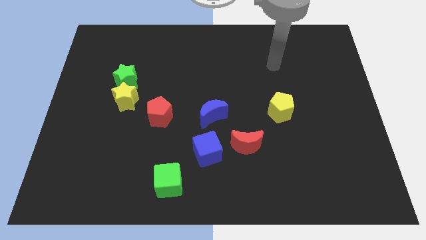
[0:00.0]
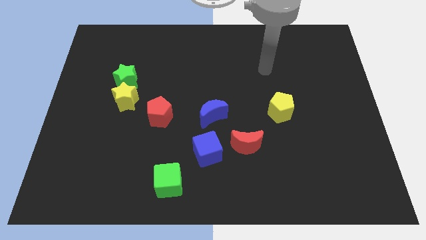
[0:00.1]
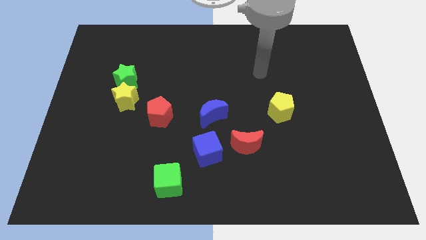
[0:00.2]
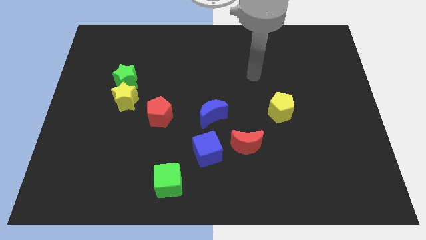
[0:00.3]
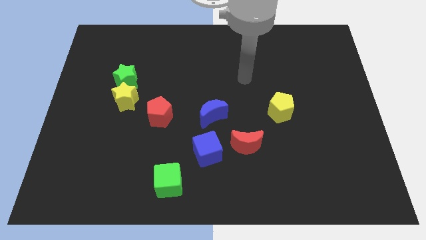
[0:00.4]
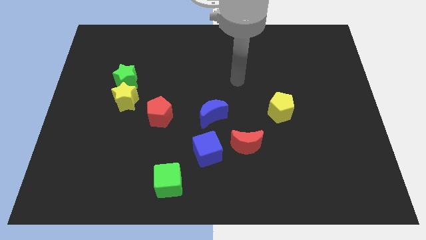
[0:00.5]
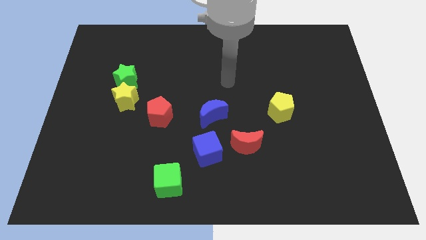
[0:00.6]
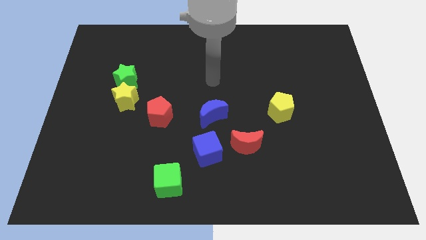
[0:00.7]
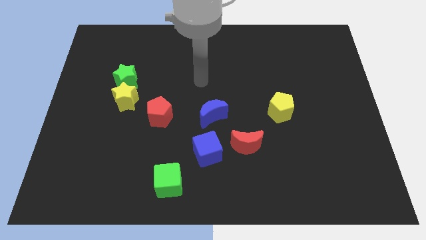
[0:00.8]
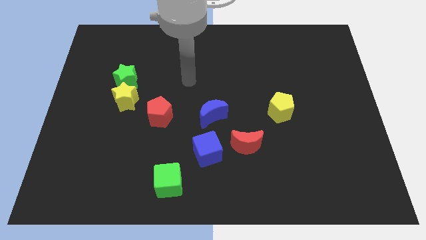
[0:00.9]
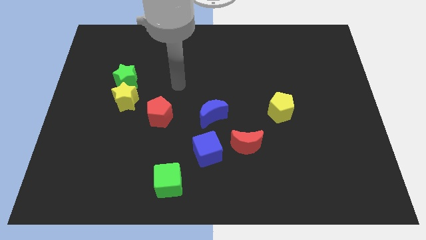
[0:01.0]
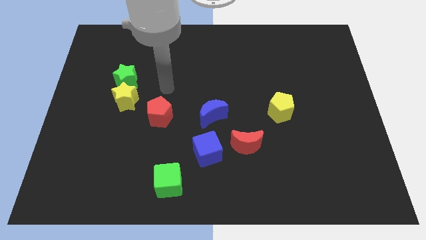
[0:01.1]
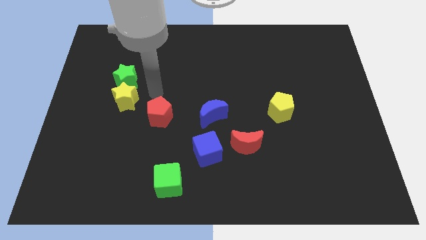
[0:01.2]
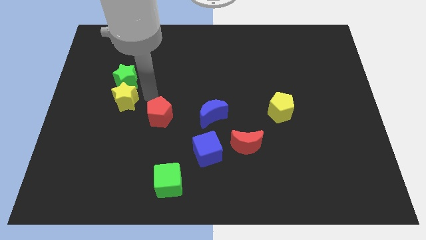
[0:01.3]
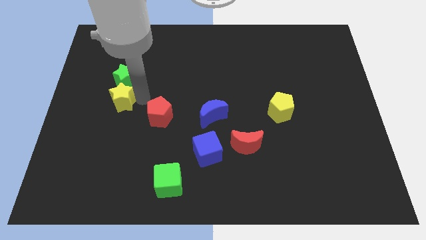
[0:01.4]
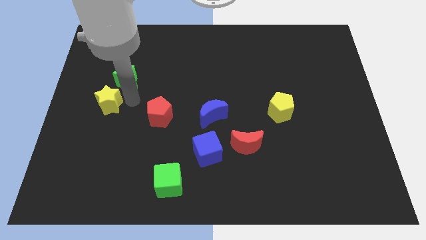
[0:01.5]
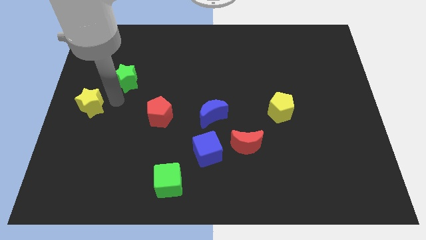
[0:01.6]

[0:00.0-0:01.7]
pull the green star apart from the yellow star

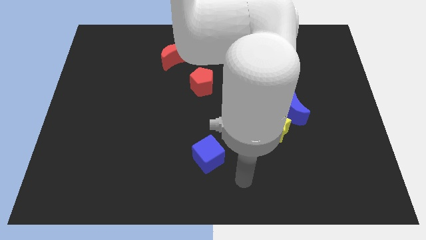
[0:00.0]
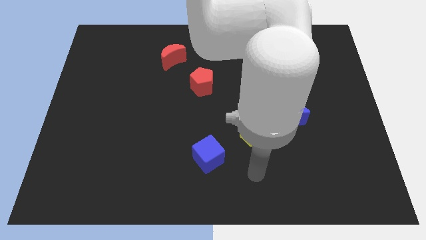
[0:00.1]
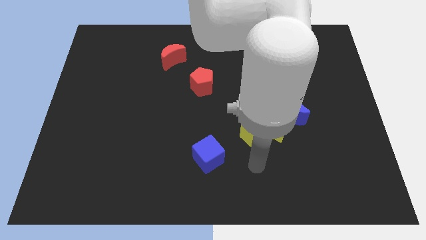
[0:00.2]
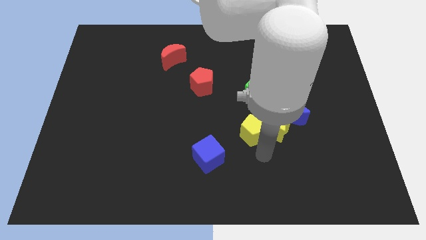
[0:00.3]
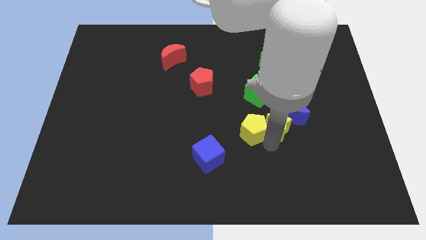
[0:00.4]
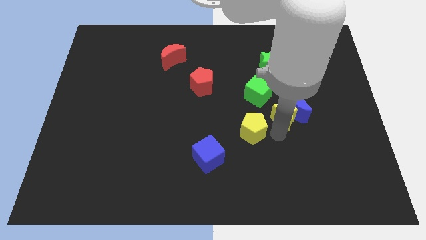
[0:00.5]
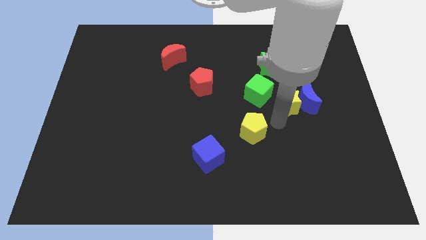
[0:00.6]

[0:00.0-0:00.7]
move the yellow pentagon away from the yellow star

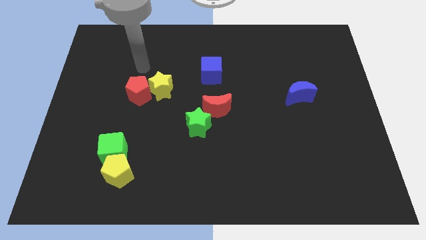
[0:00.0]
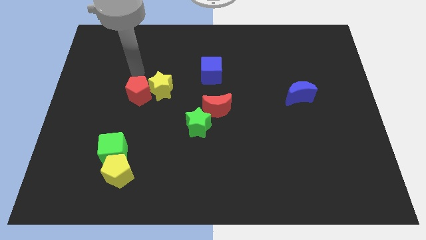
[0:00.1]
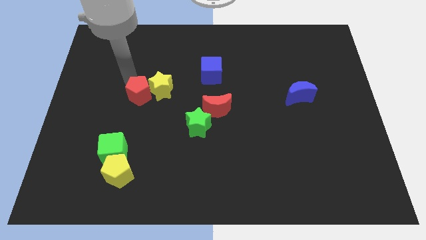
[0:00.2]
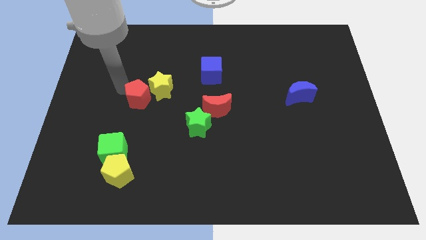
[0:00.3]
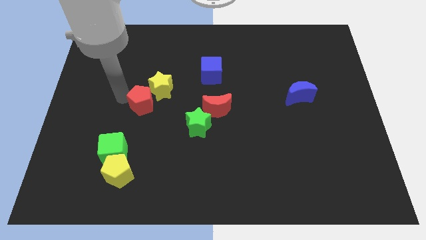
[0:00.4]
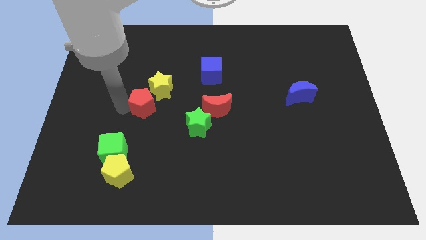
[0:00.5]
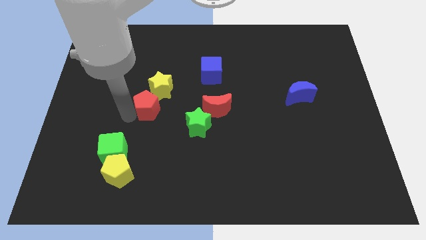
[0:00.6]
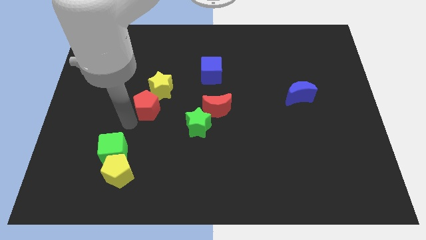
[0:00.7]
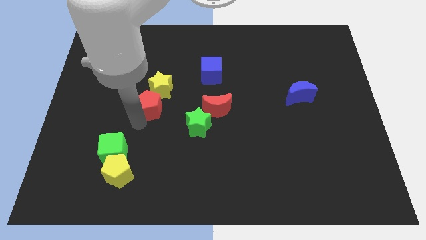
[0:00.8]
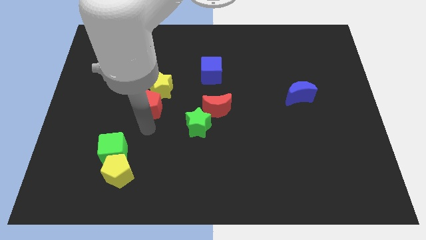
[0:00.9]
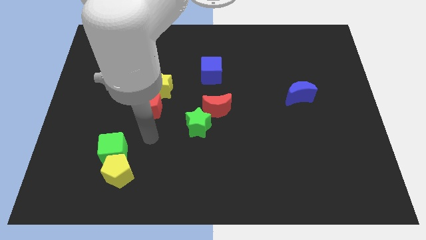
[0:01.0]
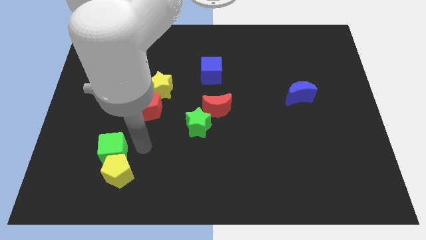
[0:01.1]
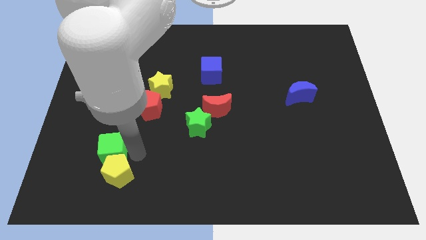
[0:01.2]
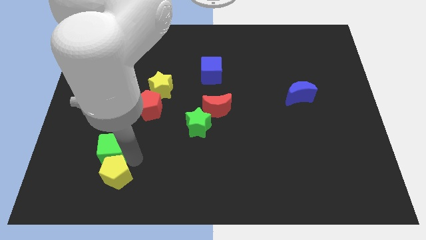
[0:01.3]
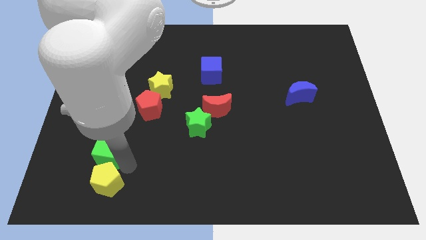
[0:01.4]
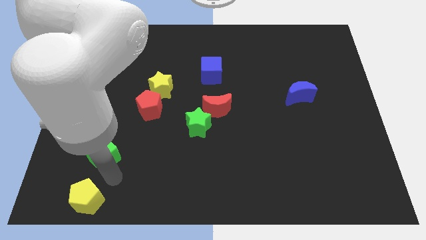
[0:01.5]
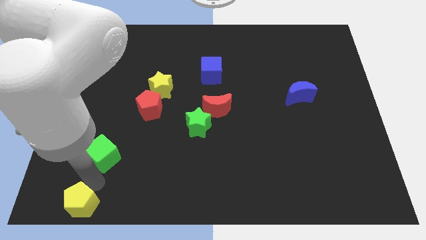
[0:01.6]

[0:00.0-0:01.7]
separate the green cube from the yellow pentagon

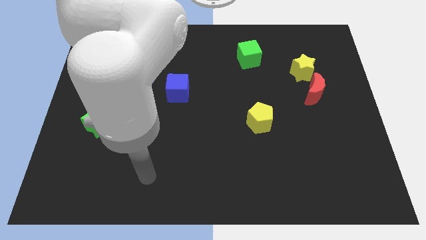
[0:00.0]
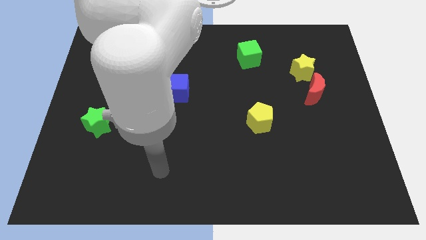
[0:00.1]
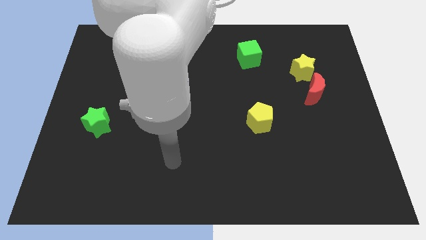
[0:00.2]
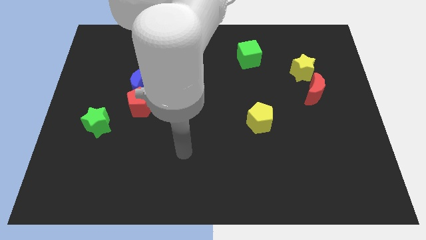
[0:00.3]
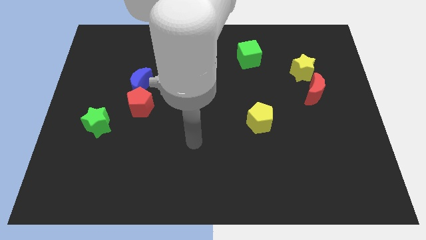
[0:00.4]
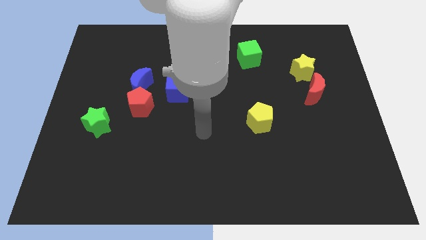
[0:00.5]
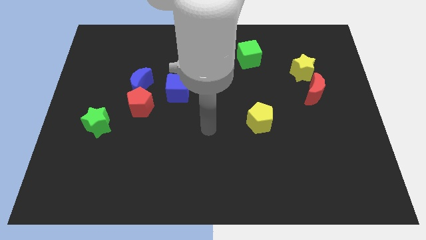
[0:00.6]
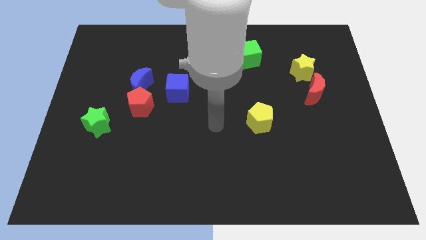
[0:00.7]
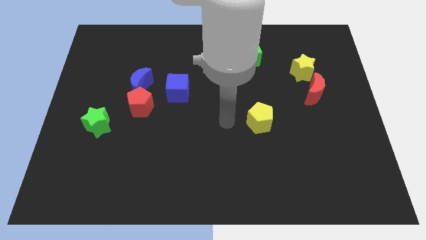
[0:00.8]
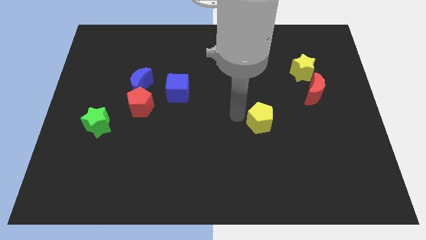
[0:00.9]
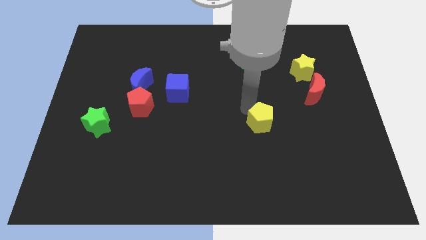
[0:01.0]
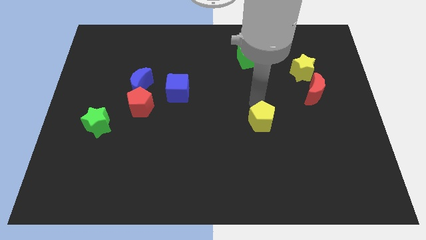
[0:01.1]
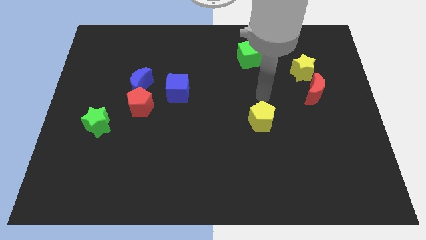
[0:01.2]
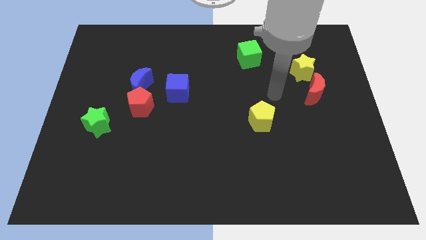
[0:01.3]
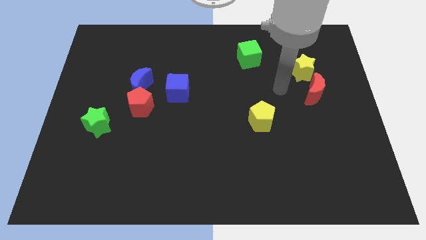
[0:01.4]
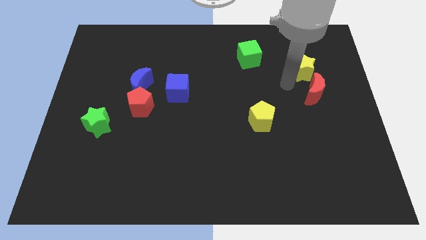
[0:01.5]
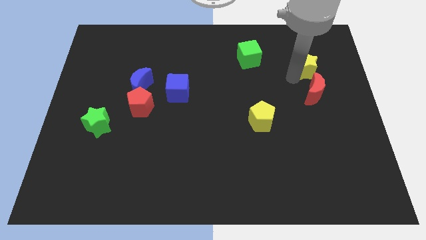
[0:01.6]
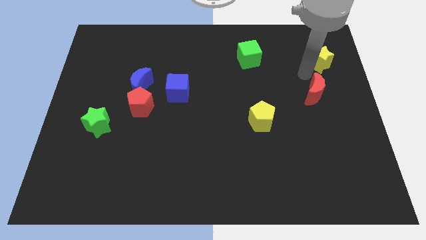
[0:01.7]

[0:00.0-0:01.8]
separate the red moon from the yellow star

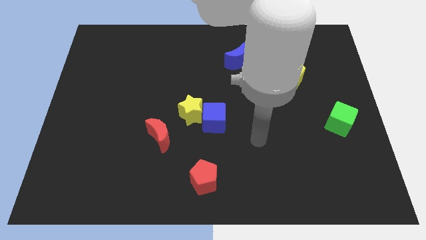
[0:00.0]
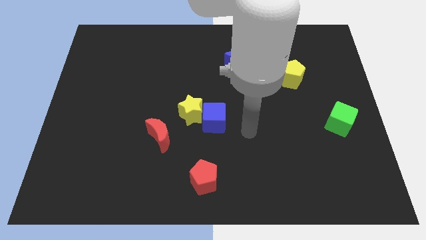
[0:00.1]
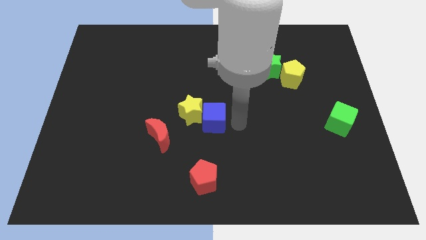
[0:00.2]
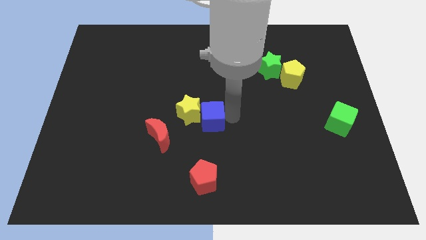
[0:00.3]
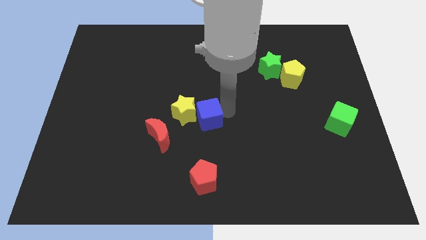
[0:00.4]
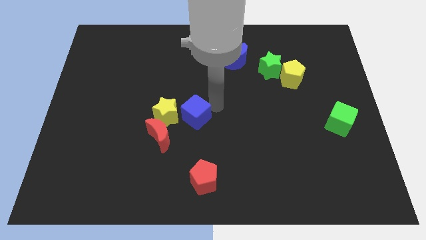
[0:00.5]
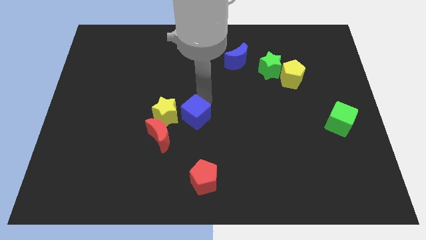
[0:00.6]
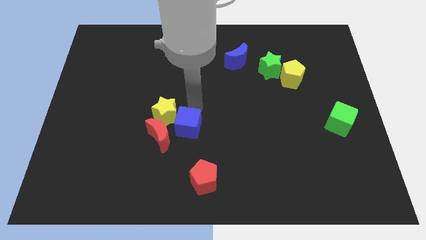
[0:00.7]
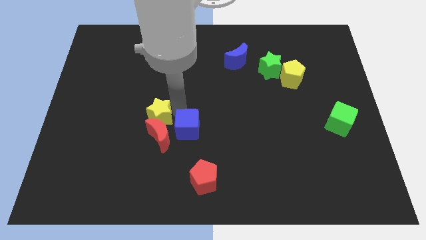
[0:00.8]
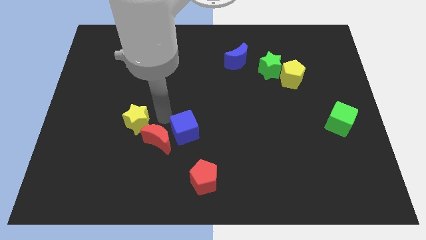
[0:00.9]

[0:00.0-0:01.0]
pull the blue cube apart from the yellow star

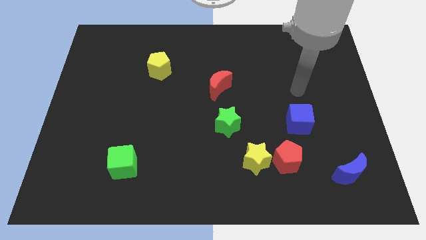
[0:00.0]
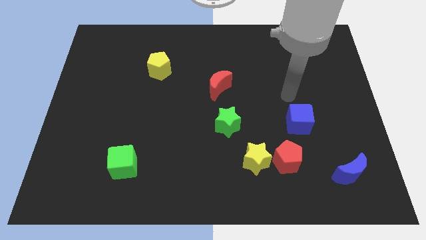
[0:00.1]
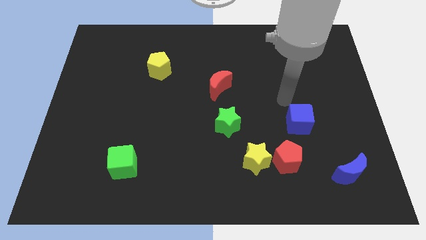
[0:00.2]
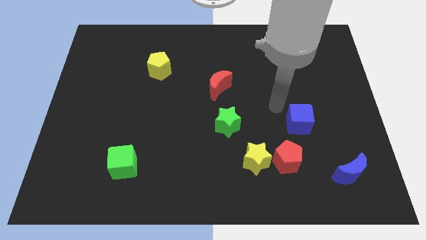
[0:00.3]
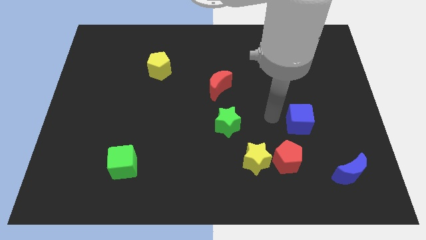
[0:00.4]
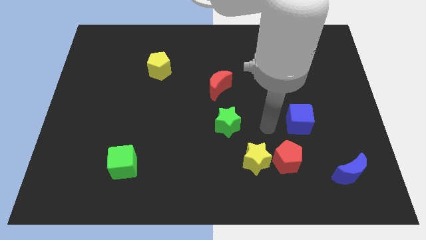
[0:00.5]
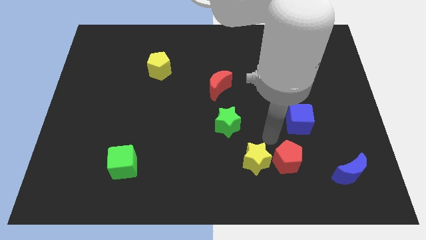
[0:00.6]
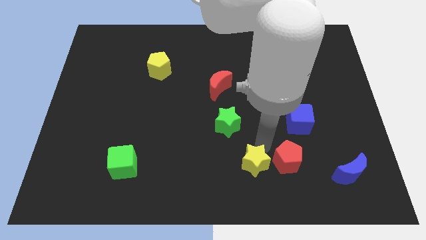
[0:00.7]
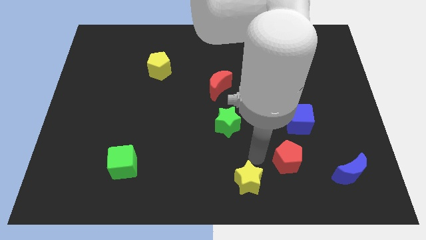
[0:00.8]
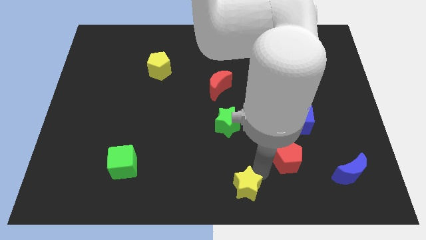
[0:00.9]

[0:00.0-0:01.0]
move the red pentagon away from the yellow star

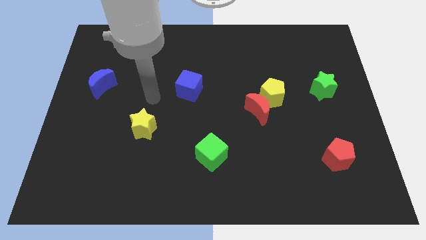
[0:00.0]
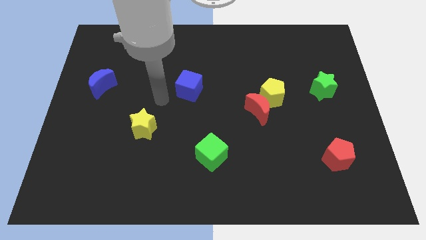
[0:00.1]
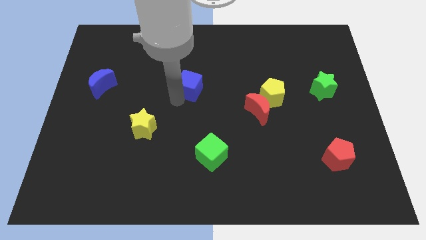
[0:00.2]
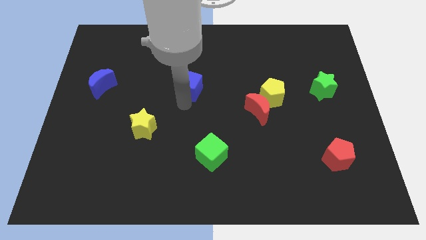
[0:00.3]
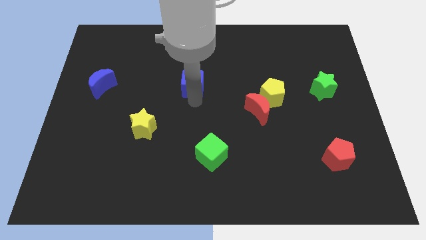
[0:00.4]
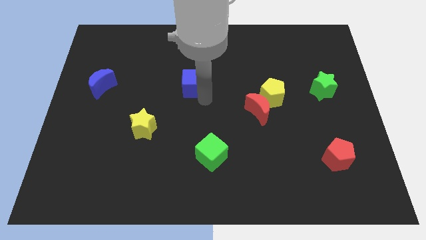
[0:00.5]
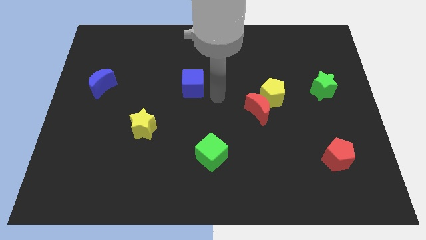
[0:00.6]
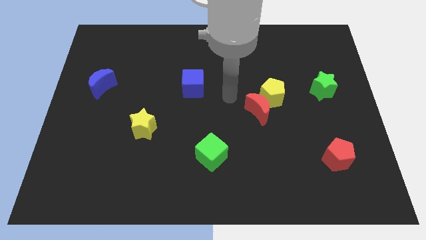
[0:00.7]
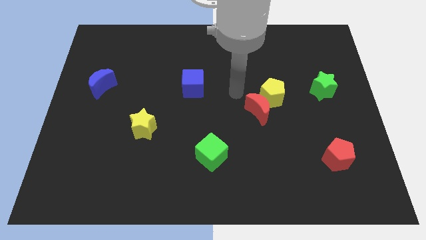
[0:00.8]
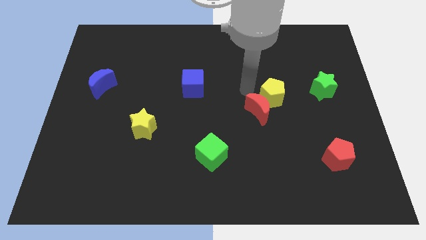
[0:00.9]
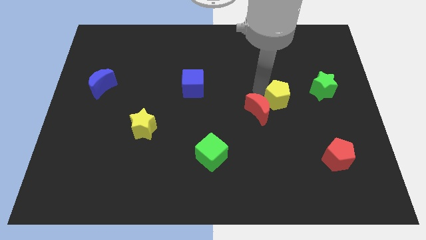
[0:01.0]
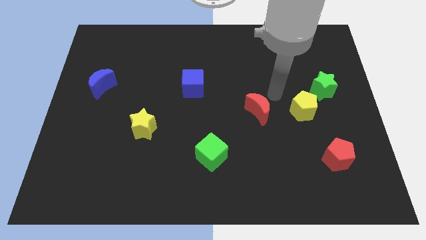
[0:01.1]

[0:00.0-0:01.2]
pull the red moon apart from the yellow pentagon

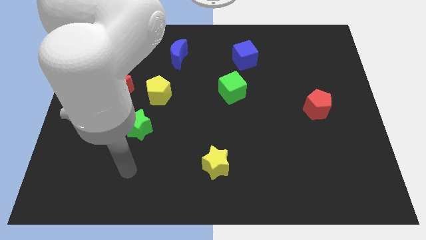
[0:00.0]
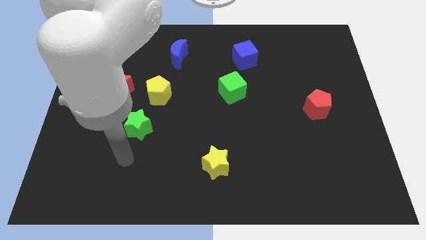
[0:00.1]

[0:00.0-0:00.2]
separate the red moon from the yellow pentagon
